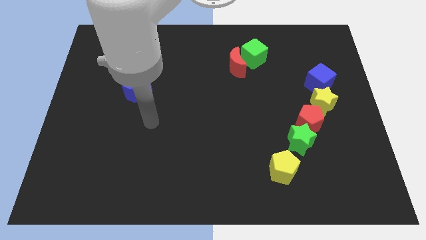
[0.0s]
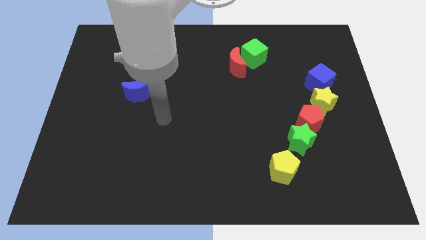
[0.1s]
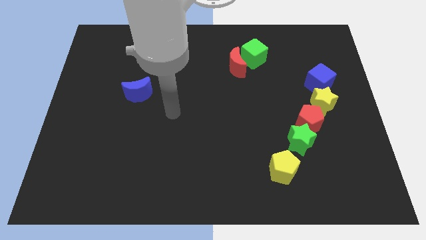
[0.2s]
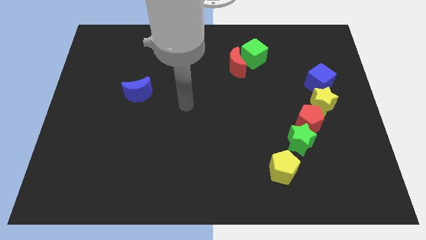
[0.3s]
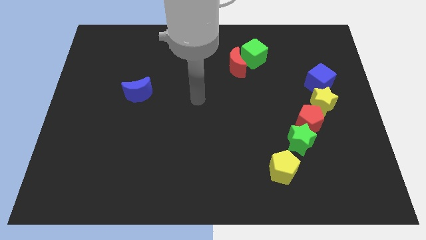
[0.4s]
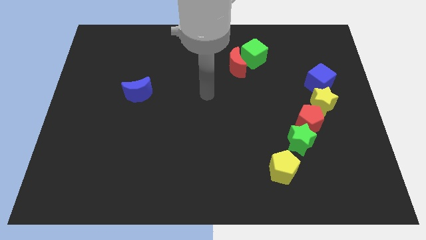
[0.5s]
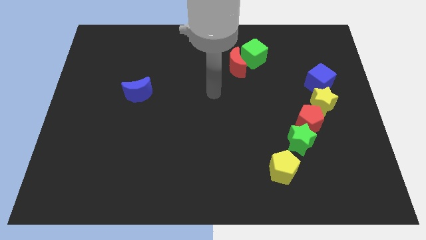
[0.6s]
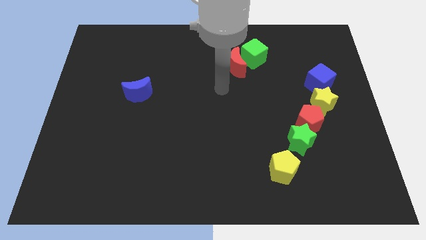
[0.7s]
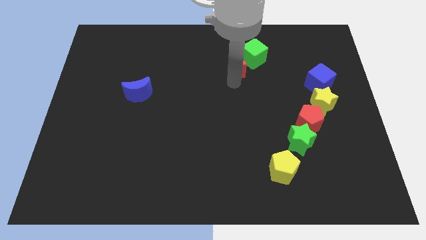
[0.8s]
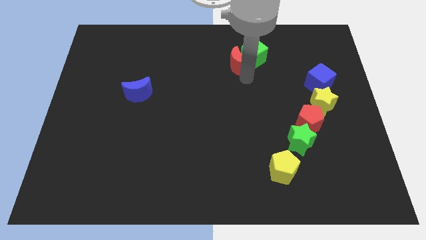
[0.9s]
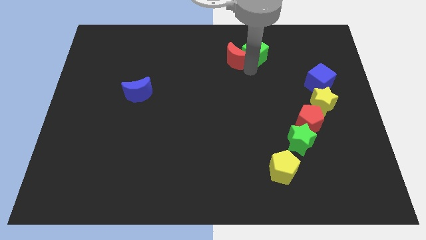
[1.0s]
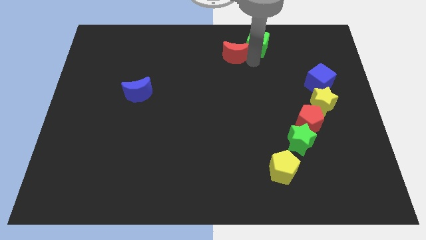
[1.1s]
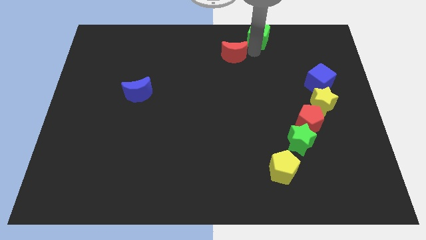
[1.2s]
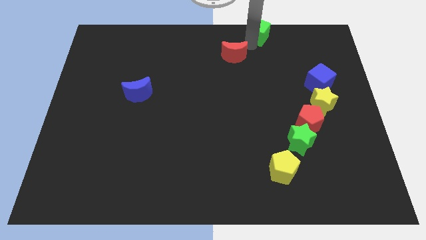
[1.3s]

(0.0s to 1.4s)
pull the red moon apart from the green cube

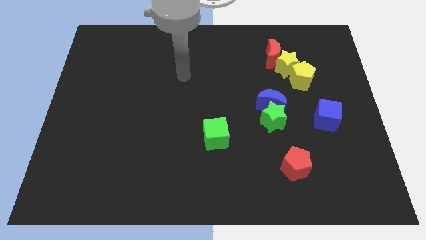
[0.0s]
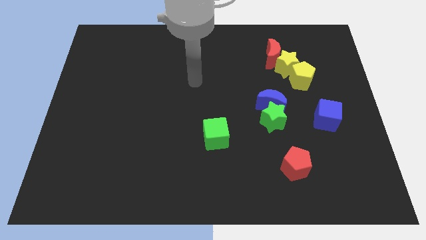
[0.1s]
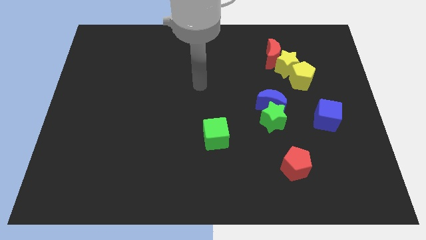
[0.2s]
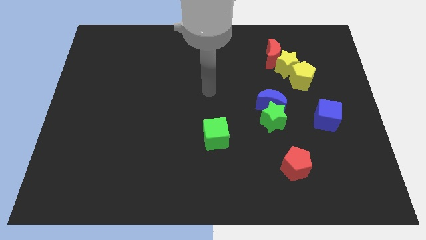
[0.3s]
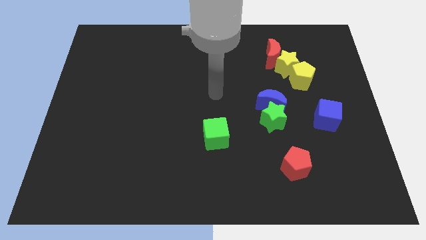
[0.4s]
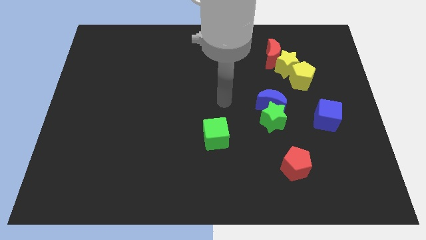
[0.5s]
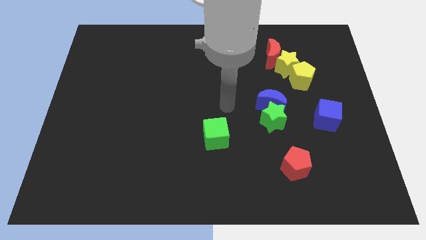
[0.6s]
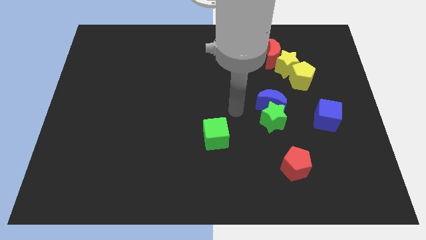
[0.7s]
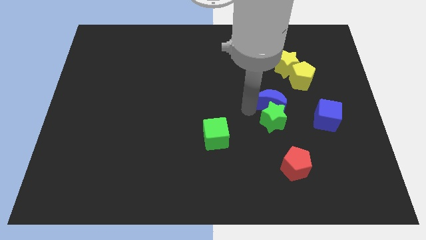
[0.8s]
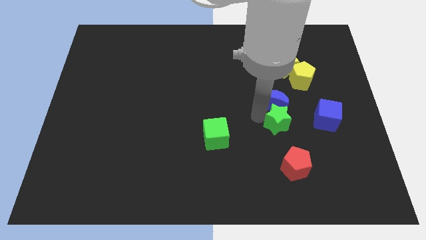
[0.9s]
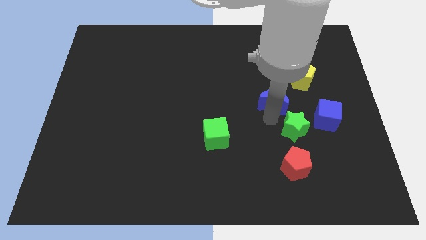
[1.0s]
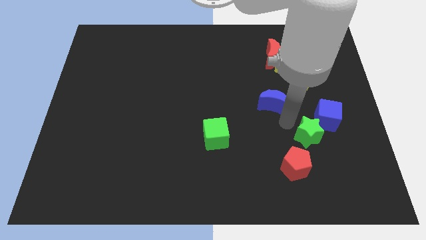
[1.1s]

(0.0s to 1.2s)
separate the blue moon from the green star

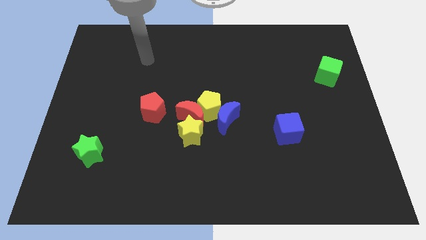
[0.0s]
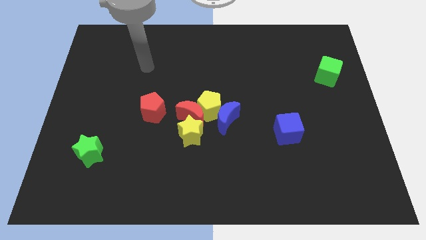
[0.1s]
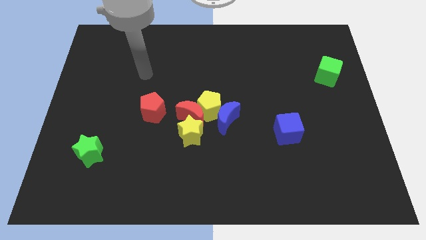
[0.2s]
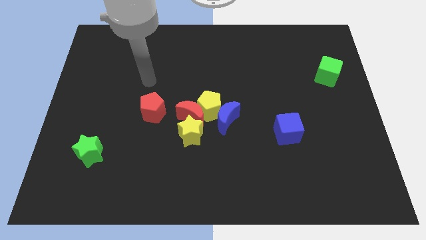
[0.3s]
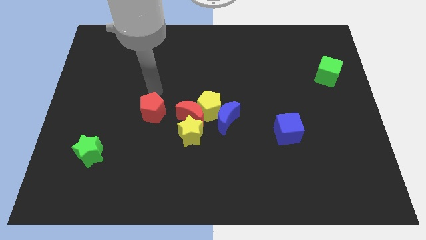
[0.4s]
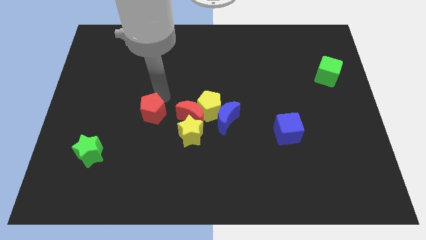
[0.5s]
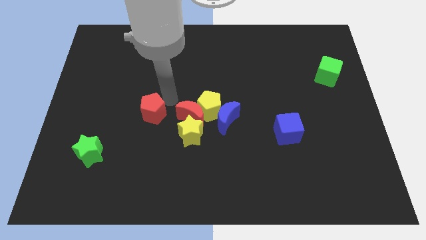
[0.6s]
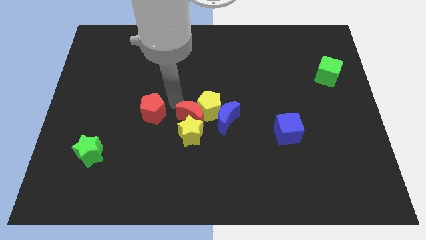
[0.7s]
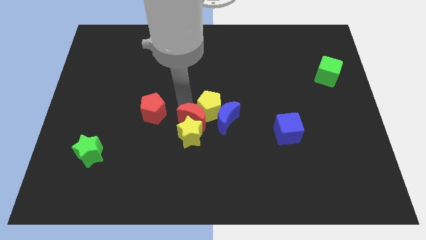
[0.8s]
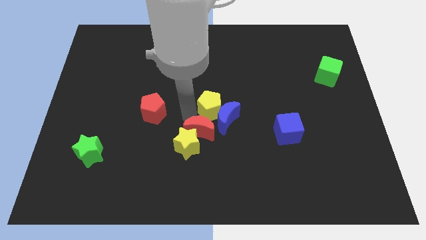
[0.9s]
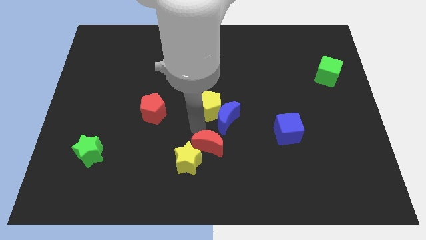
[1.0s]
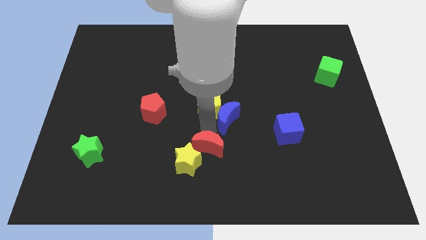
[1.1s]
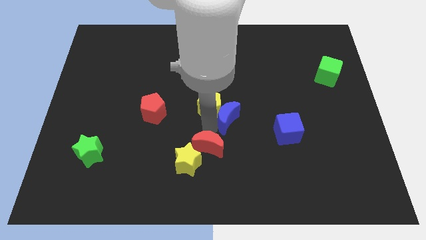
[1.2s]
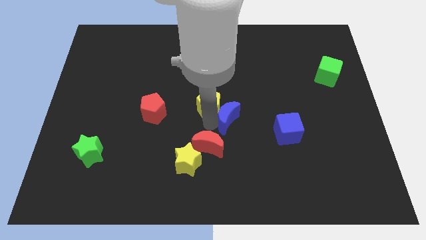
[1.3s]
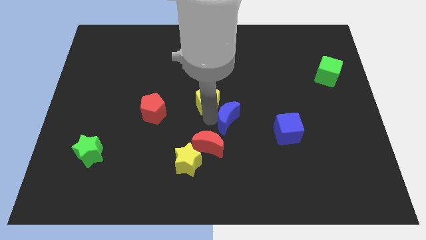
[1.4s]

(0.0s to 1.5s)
pull the yellow pentagon apart from the blue moon, red moon, and yellow star

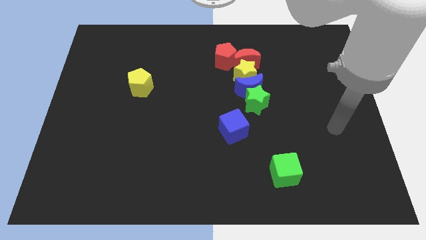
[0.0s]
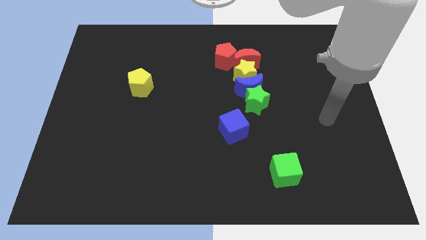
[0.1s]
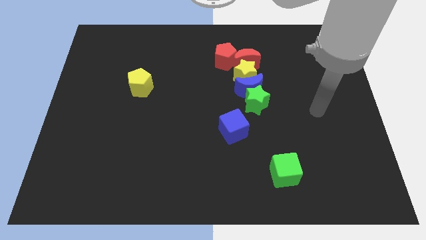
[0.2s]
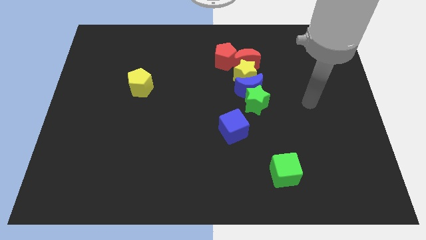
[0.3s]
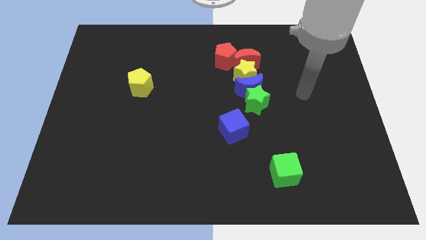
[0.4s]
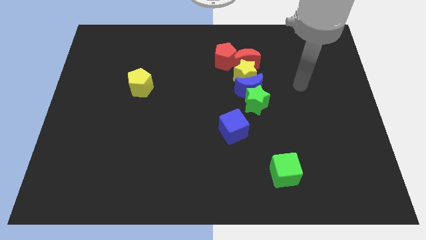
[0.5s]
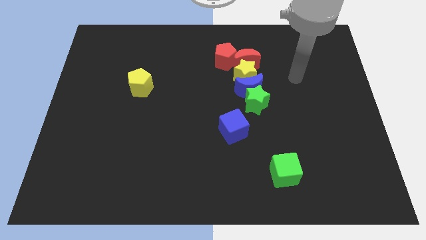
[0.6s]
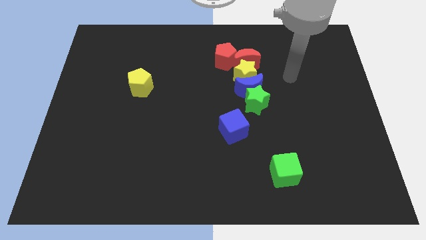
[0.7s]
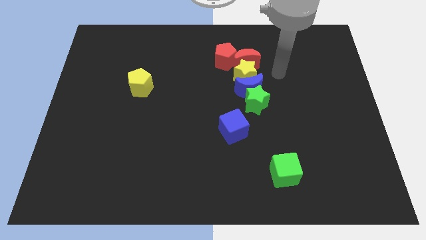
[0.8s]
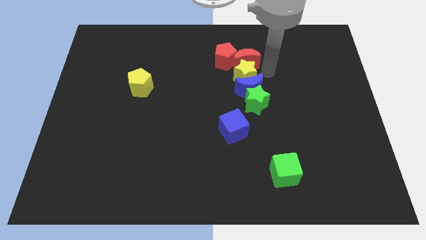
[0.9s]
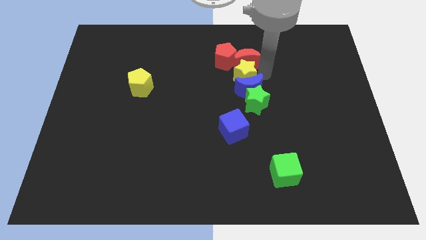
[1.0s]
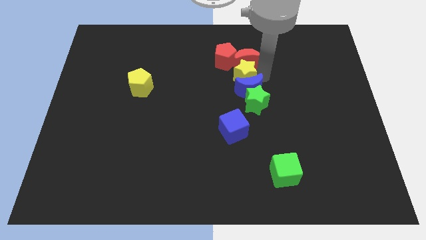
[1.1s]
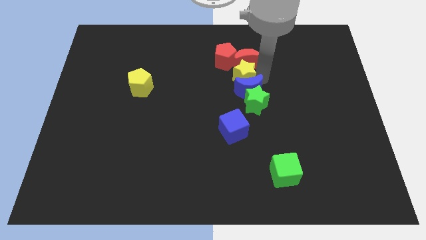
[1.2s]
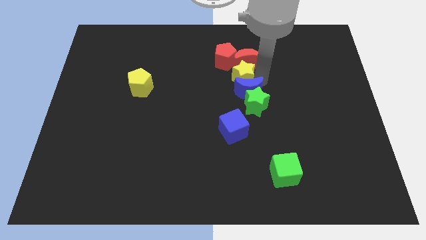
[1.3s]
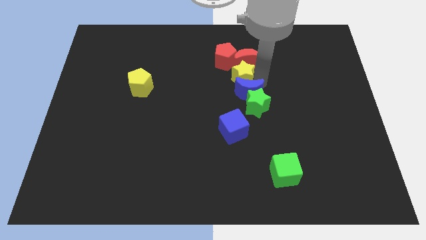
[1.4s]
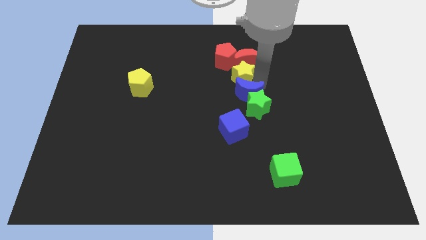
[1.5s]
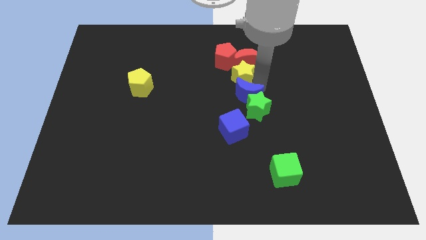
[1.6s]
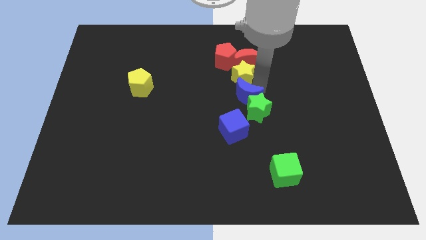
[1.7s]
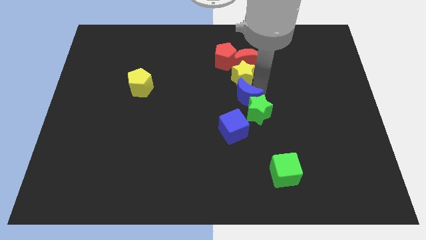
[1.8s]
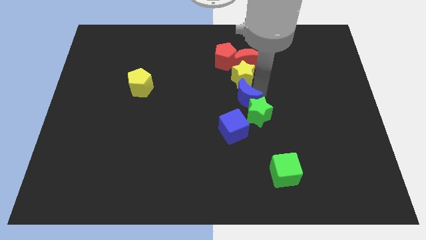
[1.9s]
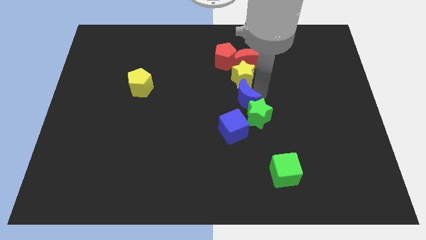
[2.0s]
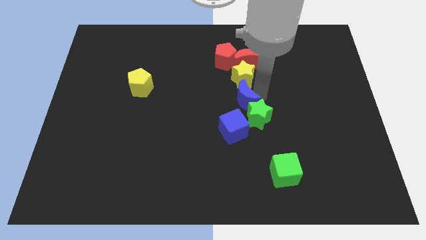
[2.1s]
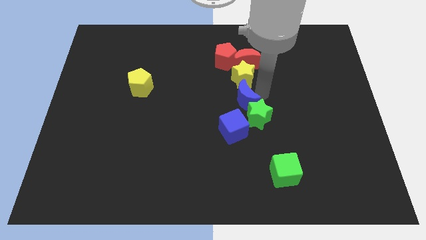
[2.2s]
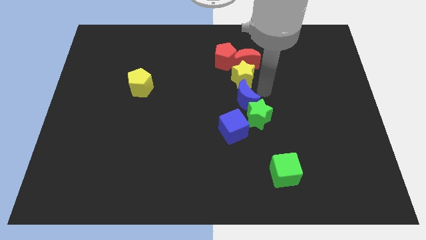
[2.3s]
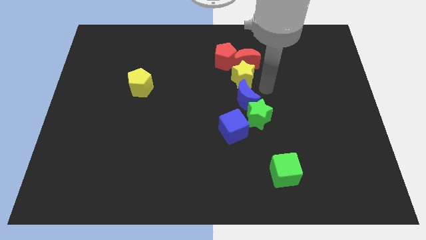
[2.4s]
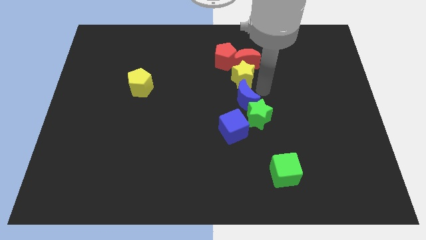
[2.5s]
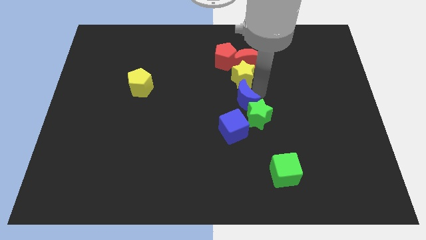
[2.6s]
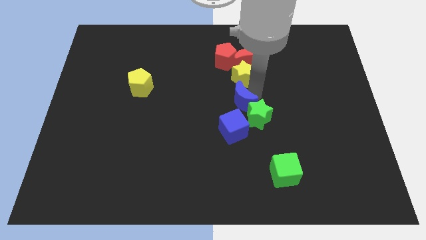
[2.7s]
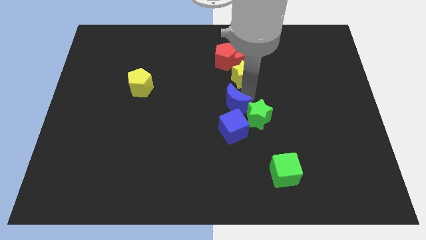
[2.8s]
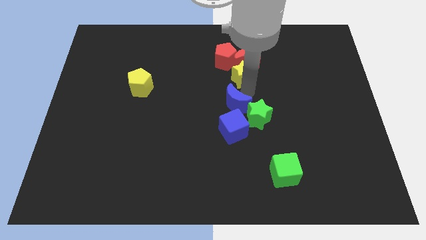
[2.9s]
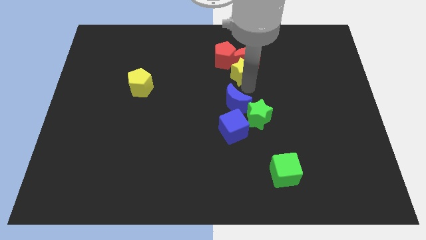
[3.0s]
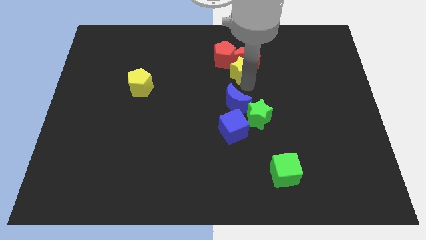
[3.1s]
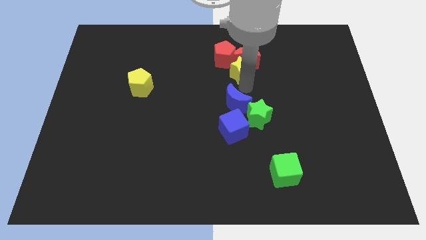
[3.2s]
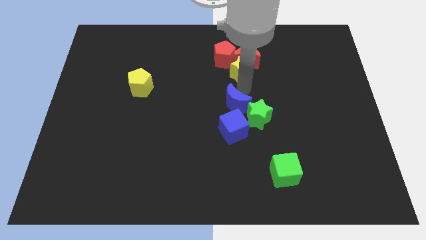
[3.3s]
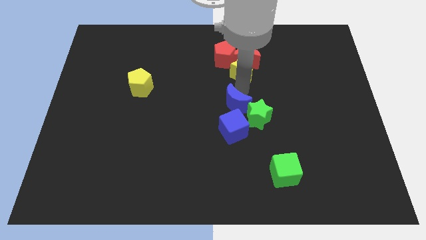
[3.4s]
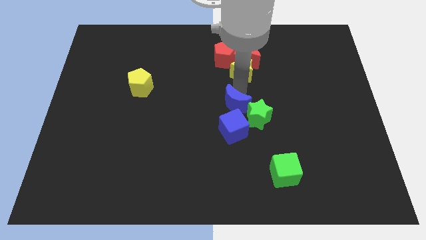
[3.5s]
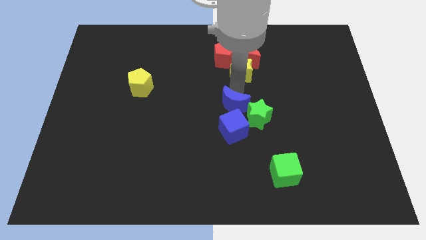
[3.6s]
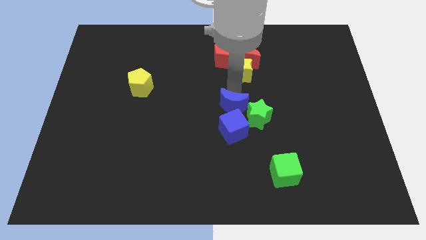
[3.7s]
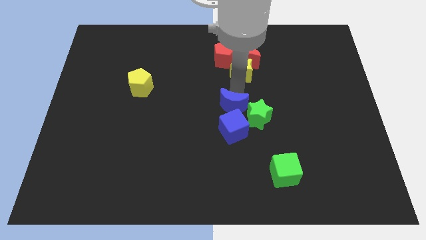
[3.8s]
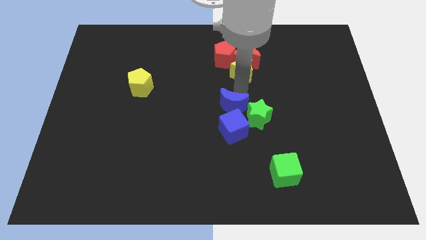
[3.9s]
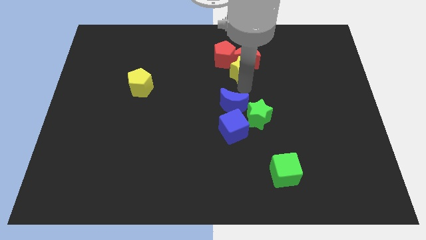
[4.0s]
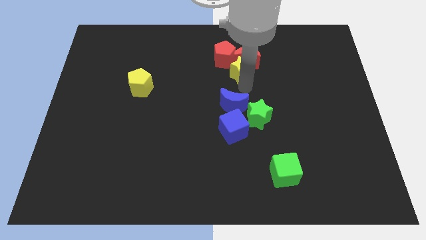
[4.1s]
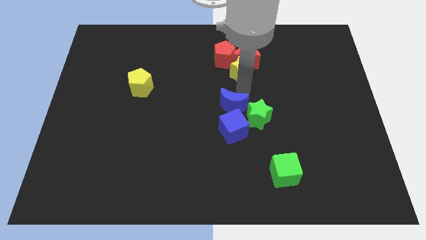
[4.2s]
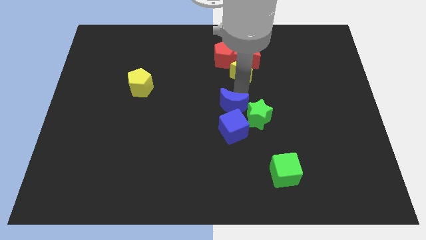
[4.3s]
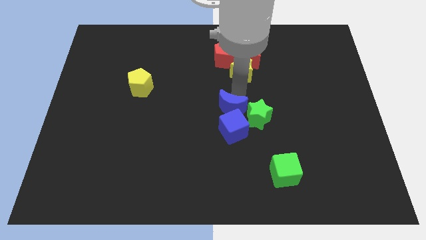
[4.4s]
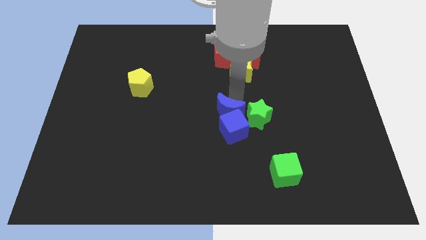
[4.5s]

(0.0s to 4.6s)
move the blue moon away from the group

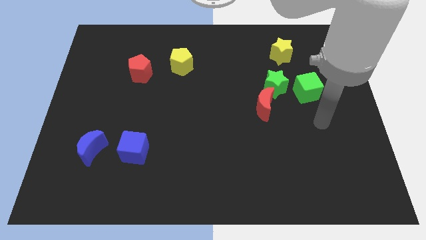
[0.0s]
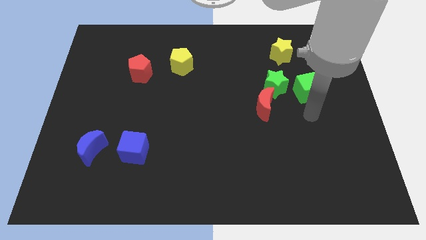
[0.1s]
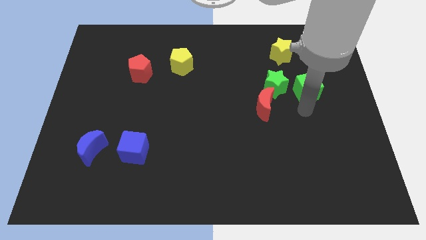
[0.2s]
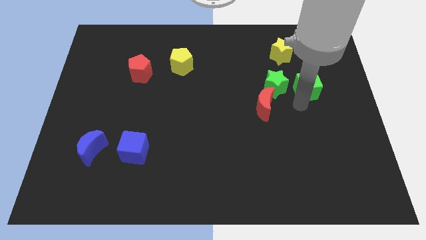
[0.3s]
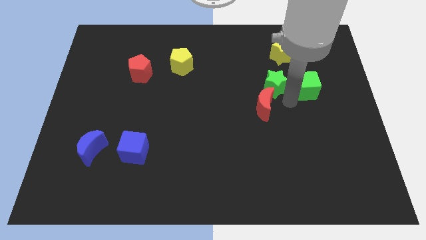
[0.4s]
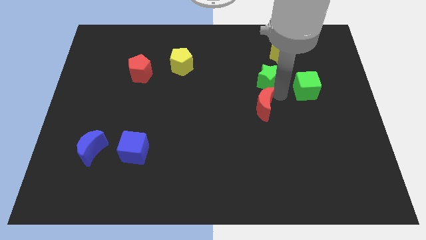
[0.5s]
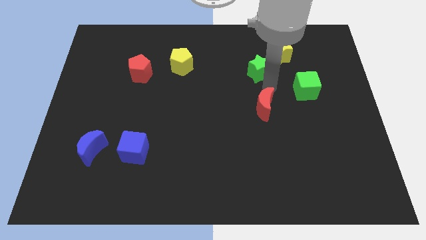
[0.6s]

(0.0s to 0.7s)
move the red moon away from the green star
